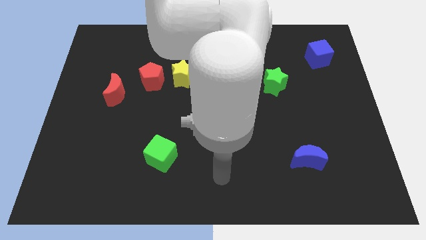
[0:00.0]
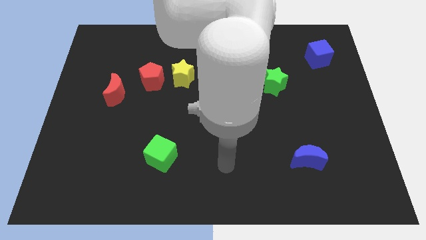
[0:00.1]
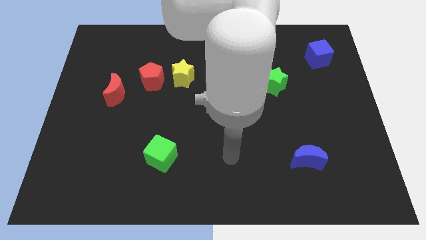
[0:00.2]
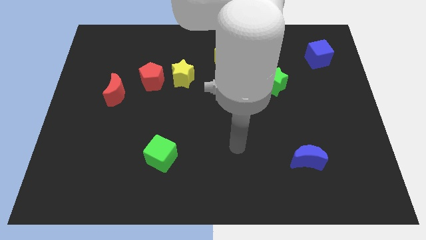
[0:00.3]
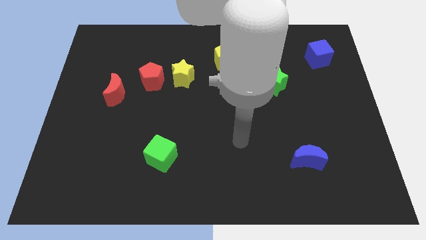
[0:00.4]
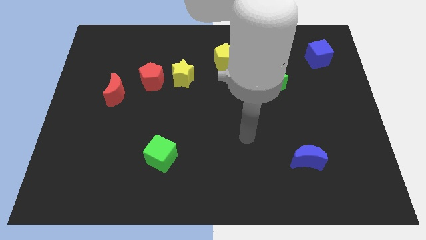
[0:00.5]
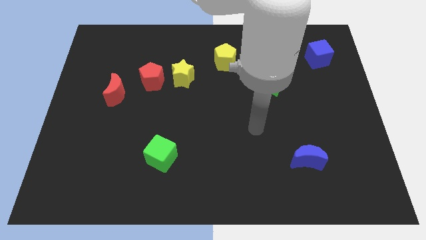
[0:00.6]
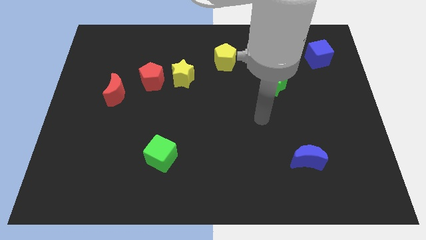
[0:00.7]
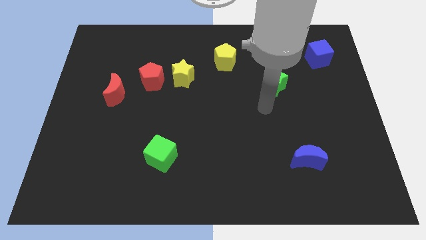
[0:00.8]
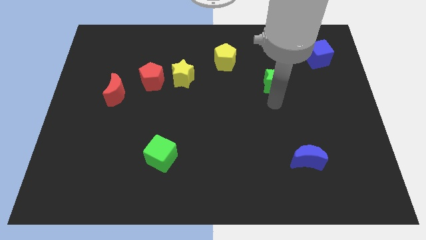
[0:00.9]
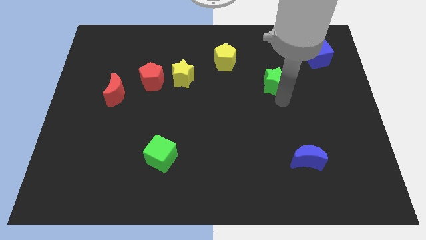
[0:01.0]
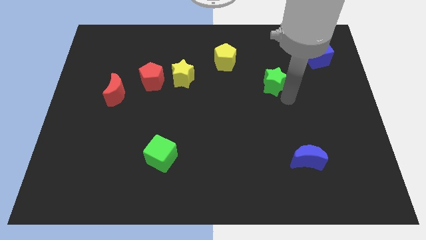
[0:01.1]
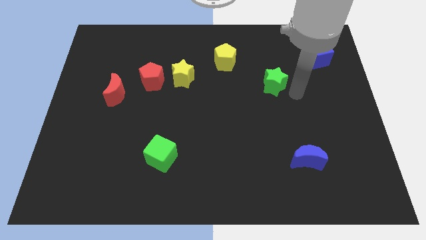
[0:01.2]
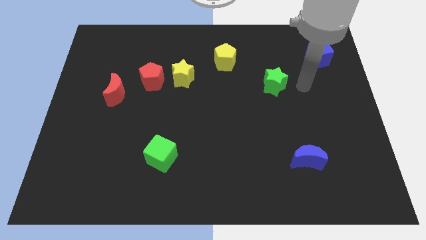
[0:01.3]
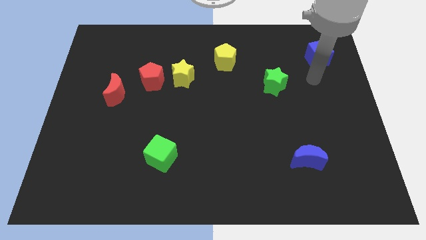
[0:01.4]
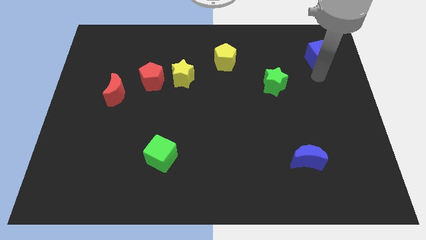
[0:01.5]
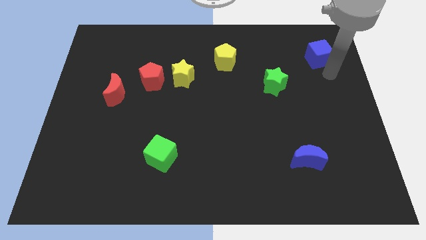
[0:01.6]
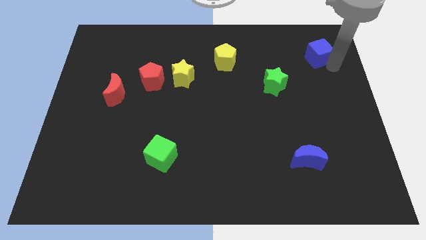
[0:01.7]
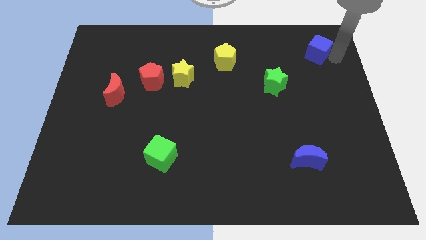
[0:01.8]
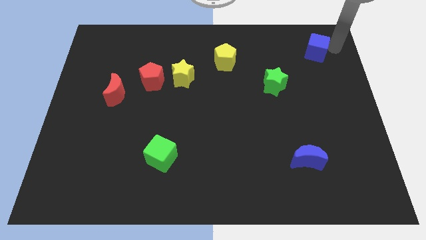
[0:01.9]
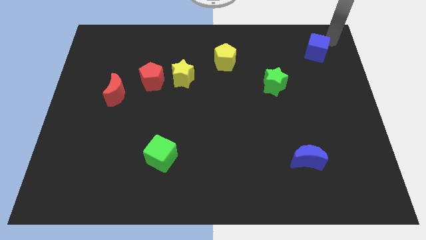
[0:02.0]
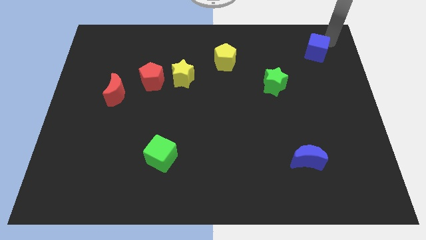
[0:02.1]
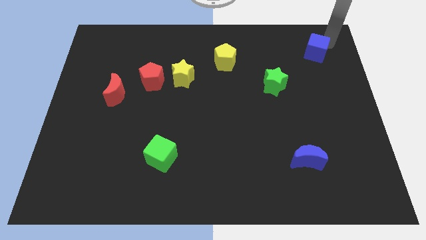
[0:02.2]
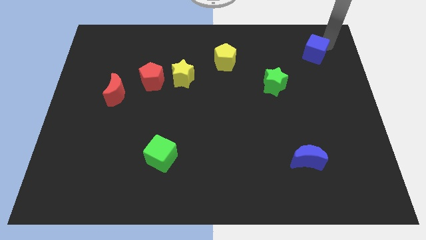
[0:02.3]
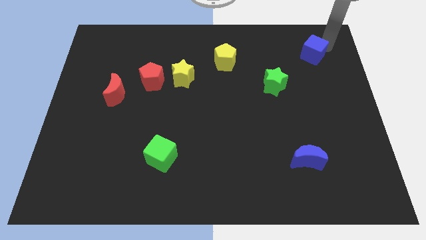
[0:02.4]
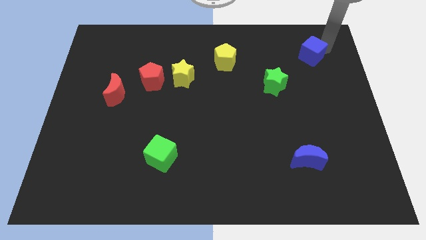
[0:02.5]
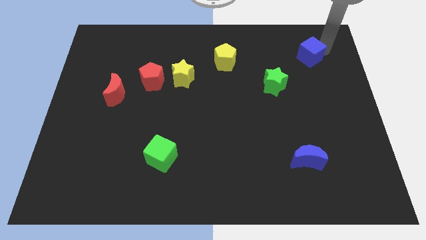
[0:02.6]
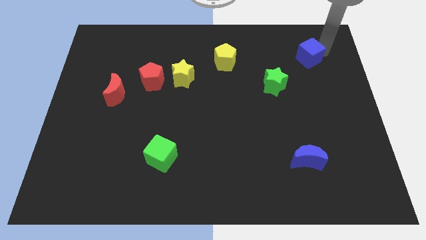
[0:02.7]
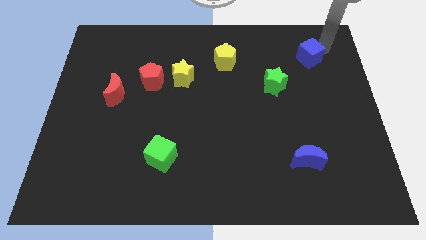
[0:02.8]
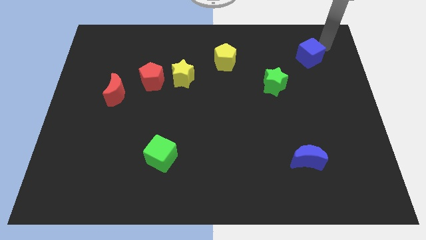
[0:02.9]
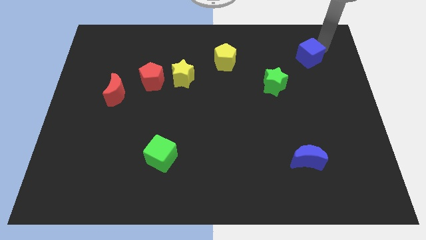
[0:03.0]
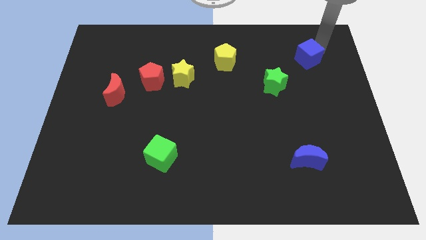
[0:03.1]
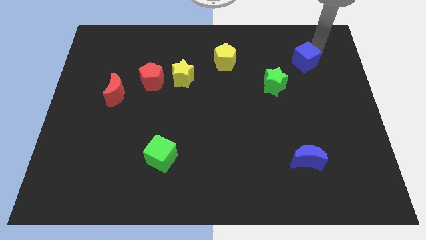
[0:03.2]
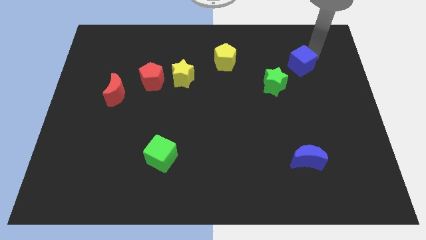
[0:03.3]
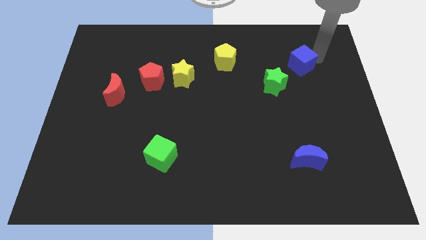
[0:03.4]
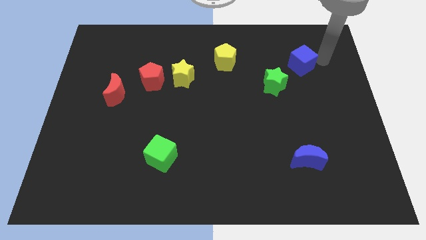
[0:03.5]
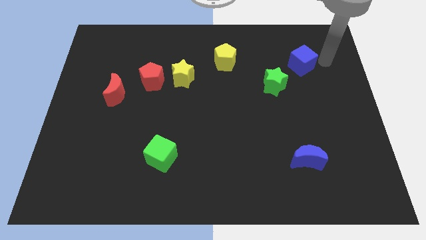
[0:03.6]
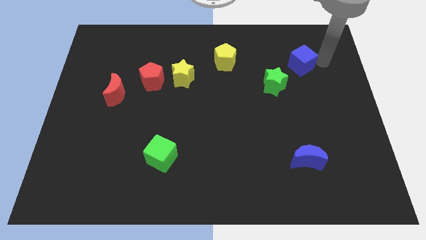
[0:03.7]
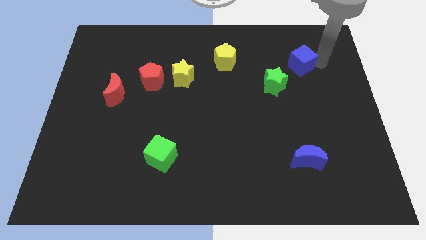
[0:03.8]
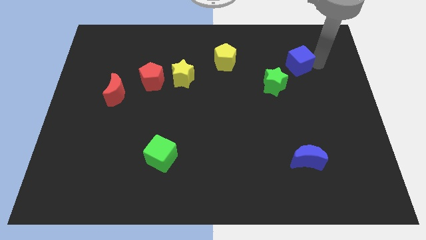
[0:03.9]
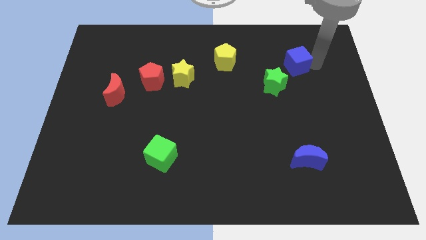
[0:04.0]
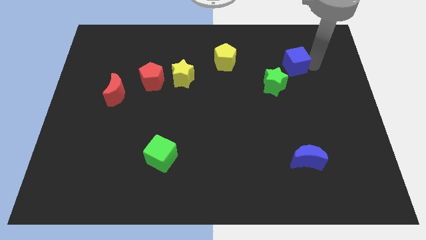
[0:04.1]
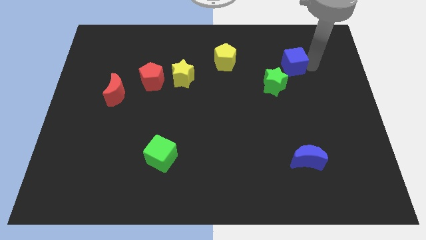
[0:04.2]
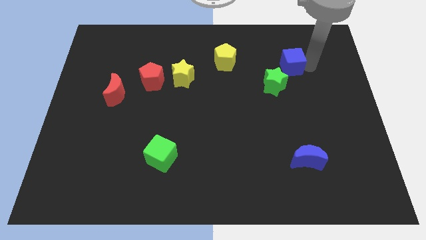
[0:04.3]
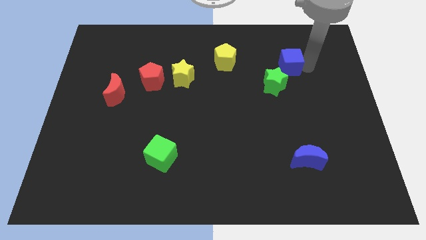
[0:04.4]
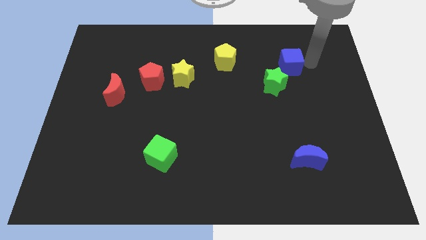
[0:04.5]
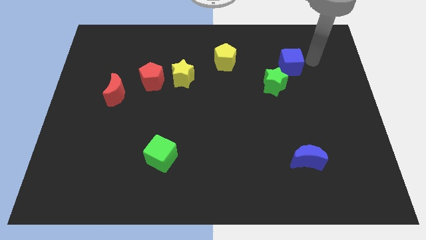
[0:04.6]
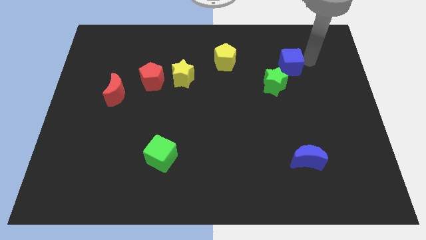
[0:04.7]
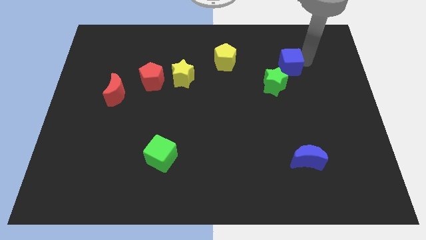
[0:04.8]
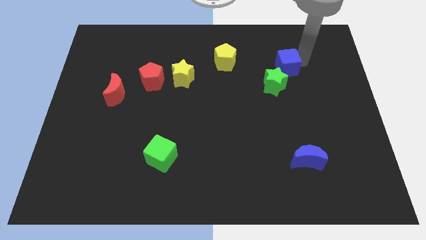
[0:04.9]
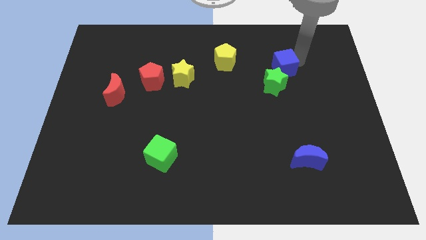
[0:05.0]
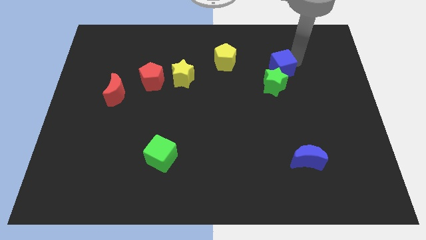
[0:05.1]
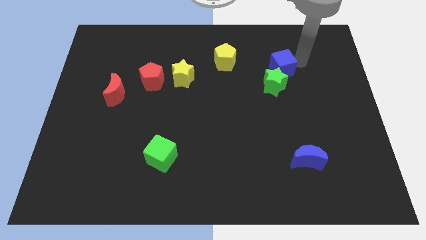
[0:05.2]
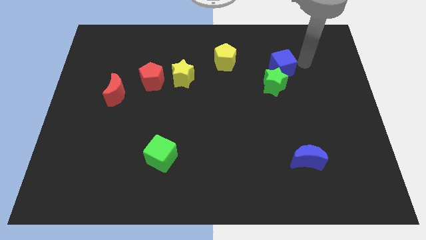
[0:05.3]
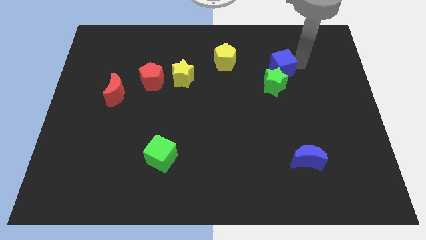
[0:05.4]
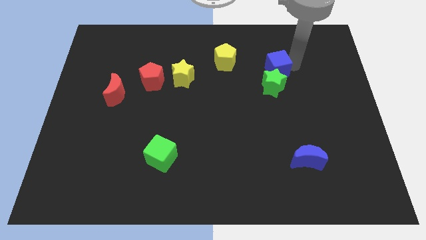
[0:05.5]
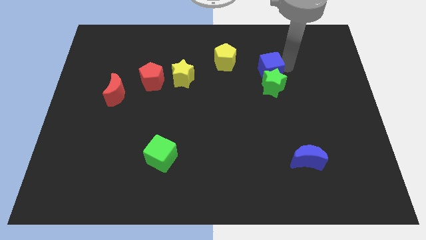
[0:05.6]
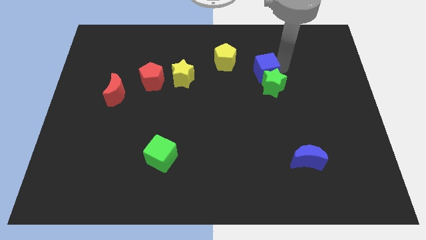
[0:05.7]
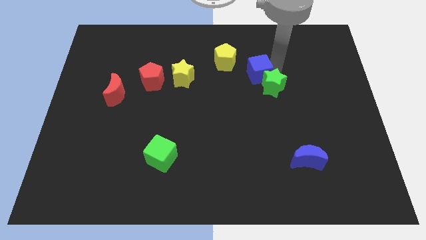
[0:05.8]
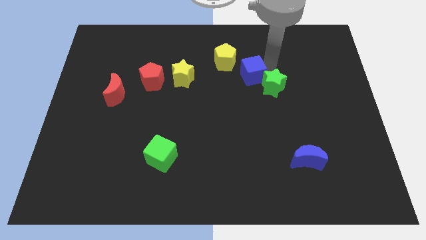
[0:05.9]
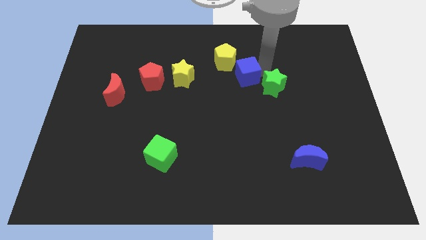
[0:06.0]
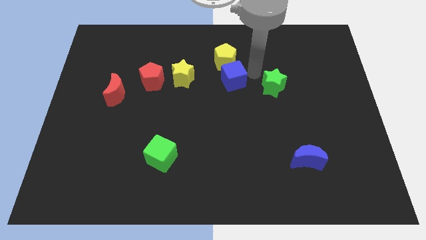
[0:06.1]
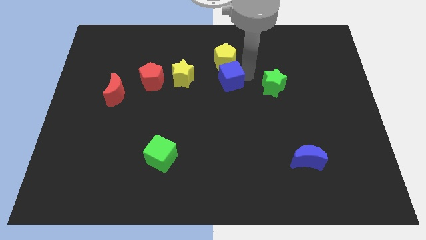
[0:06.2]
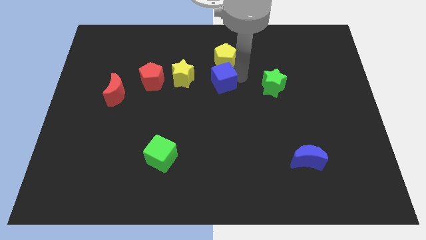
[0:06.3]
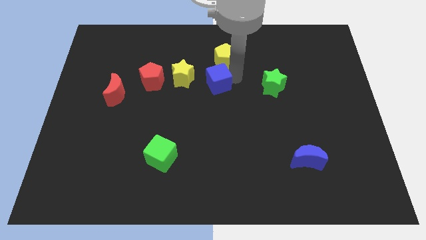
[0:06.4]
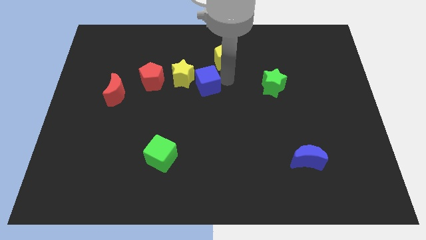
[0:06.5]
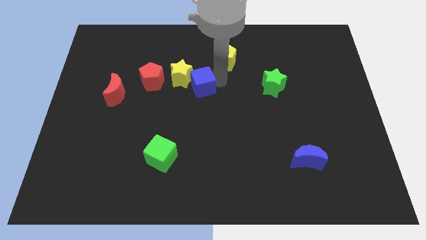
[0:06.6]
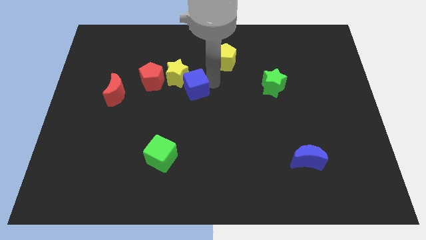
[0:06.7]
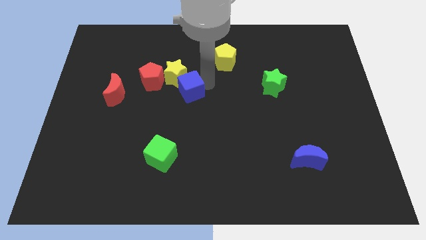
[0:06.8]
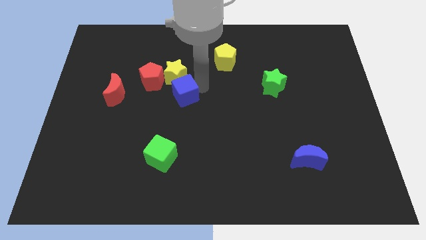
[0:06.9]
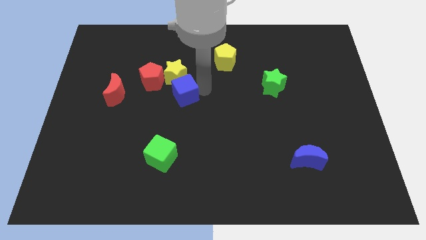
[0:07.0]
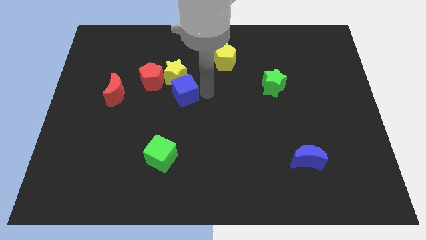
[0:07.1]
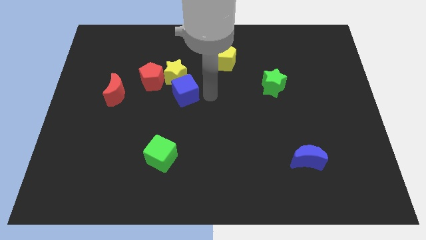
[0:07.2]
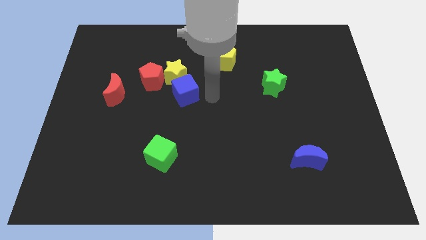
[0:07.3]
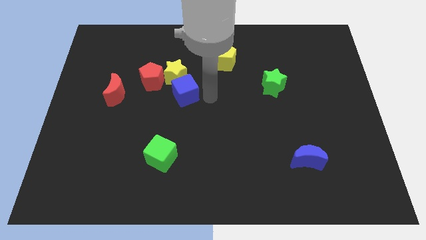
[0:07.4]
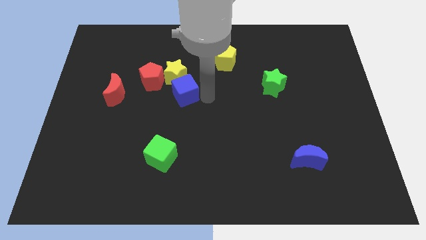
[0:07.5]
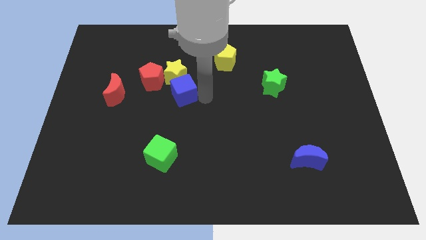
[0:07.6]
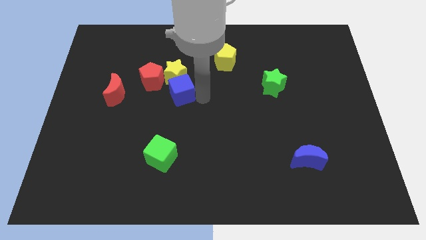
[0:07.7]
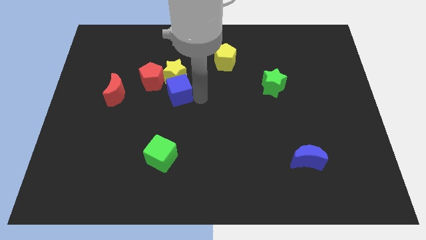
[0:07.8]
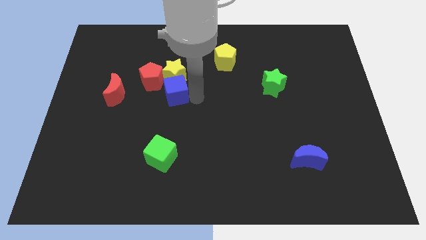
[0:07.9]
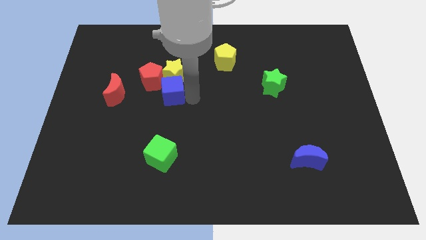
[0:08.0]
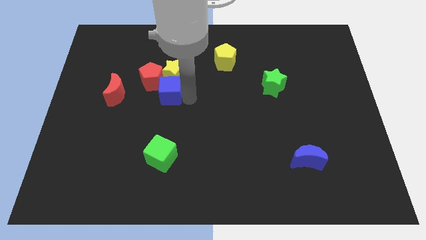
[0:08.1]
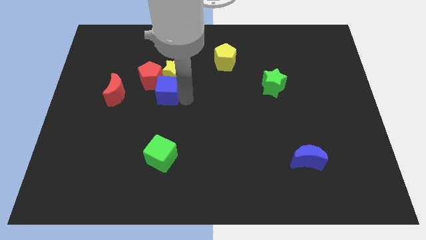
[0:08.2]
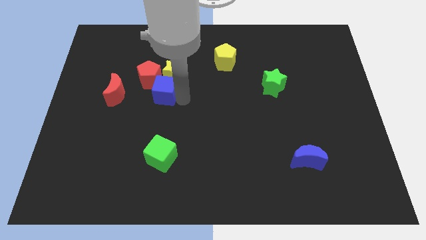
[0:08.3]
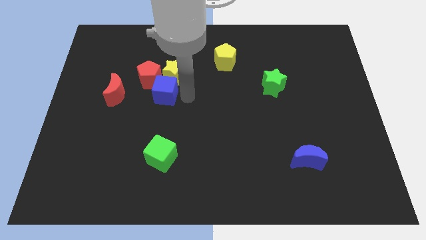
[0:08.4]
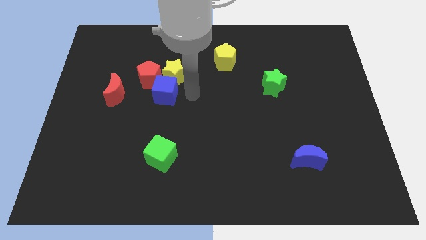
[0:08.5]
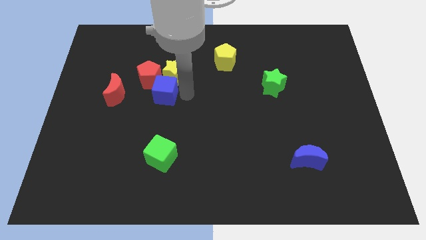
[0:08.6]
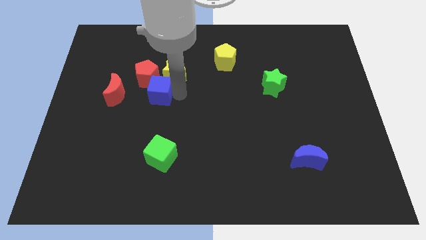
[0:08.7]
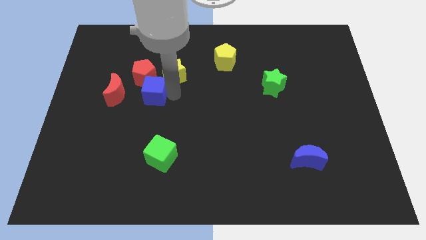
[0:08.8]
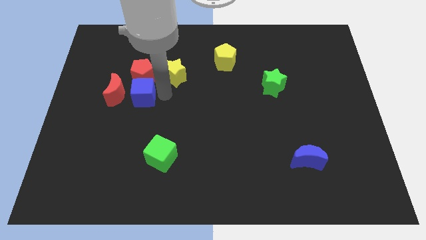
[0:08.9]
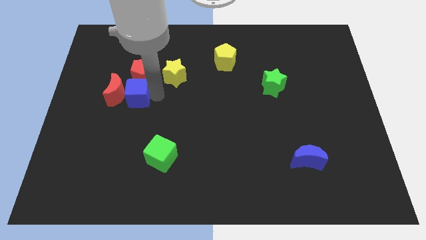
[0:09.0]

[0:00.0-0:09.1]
slide the blue cube next to the red moon
